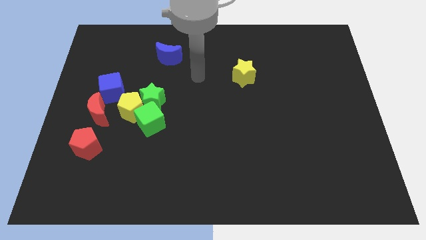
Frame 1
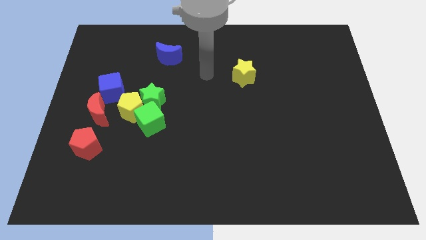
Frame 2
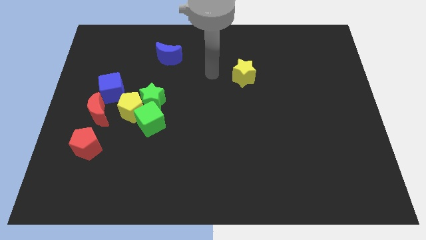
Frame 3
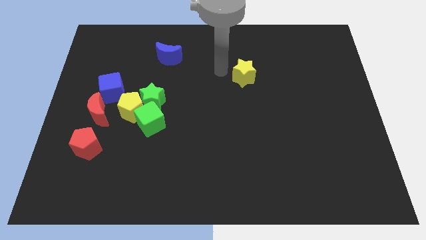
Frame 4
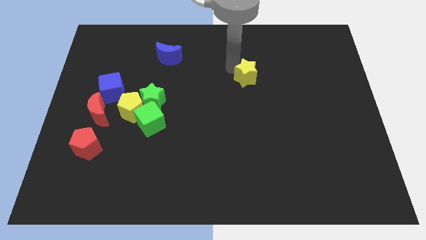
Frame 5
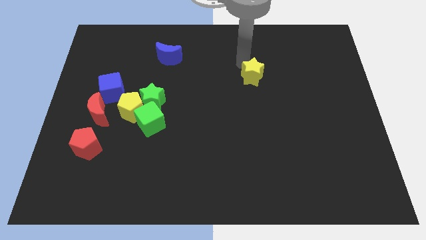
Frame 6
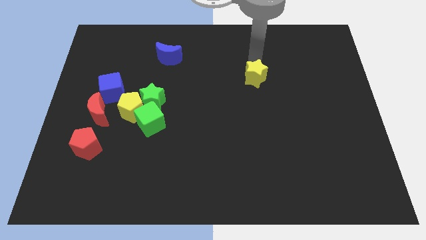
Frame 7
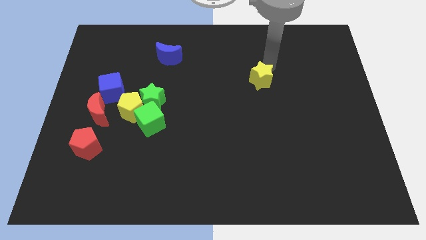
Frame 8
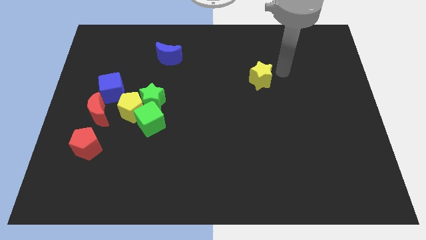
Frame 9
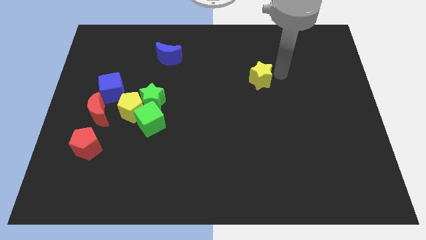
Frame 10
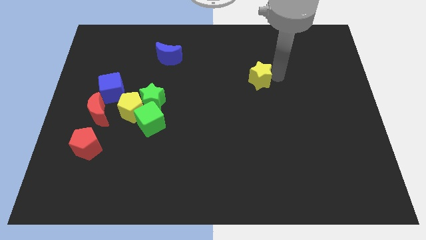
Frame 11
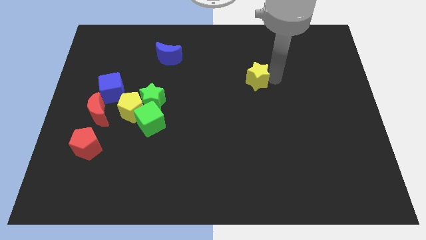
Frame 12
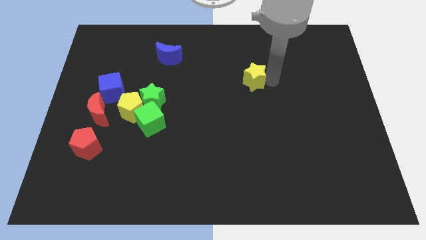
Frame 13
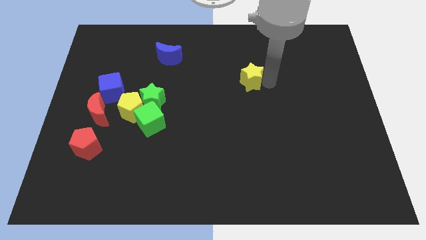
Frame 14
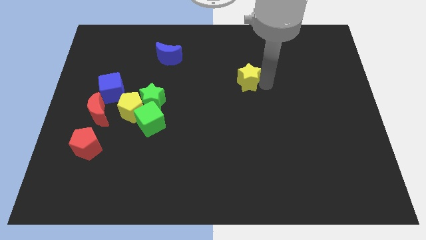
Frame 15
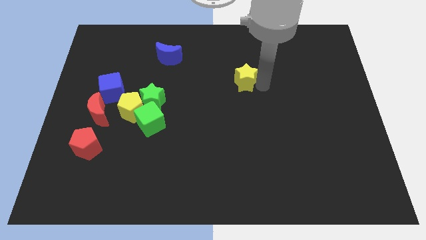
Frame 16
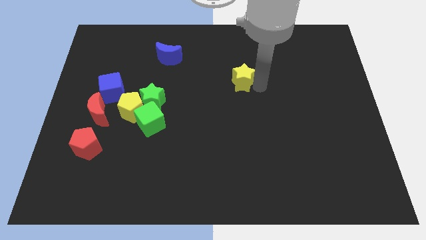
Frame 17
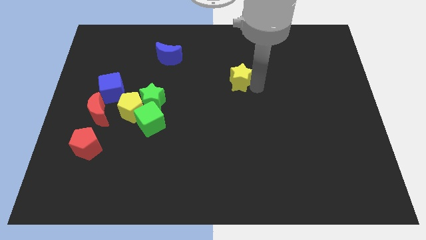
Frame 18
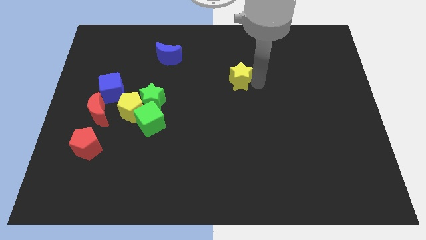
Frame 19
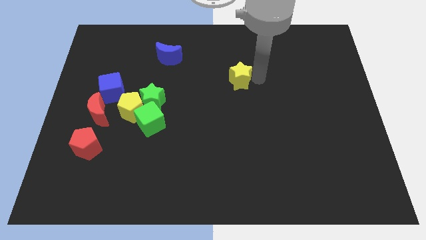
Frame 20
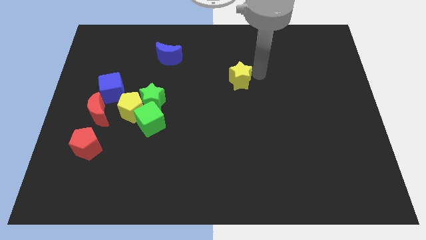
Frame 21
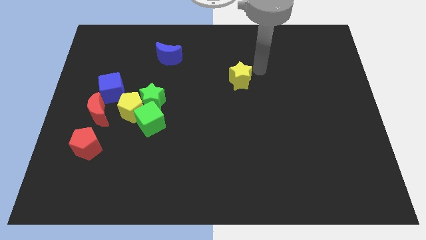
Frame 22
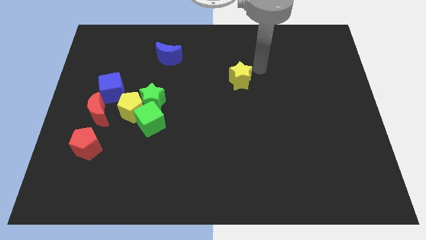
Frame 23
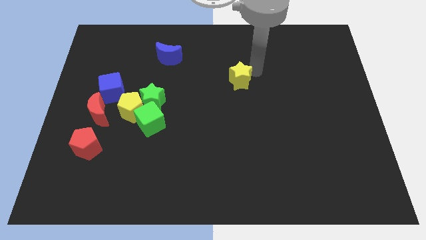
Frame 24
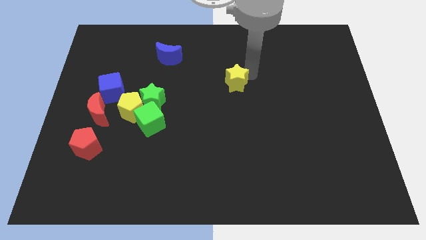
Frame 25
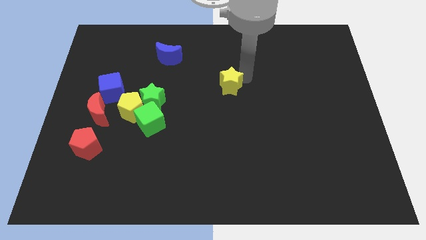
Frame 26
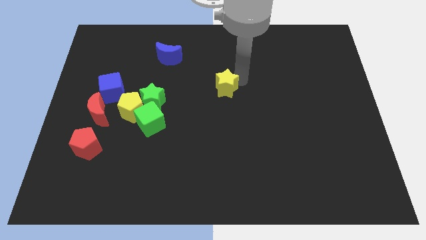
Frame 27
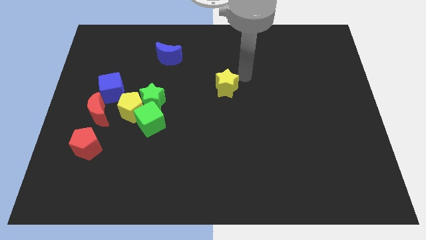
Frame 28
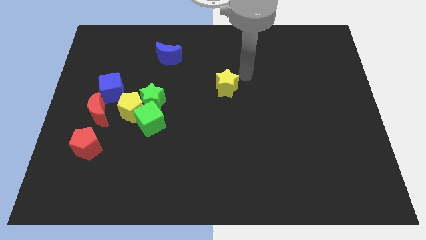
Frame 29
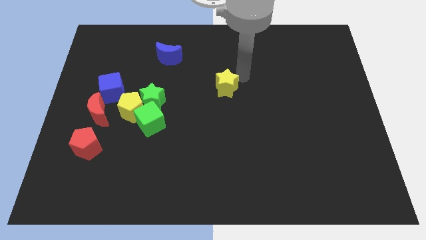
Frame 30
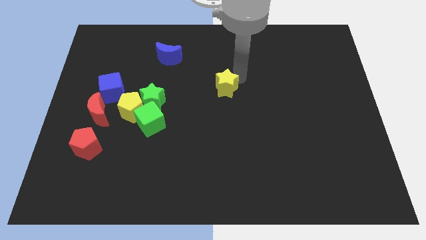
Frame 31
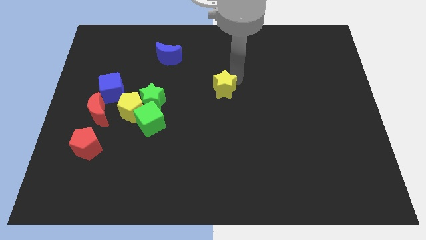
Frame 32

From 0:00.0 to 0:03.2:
slightly slide the yellow star downwards and to the left diagonally

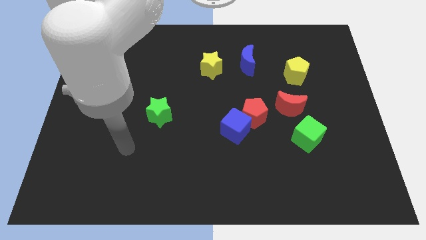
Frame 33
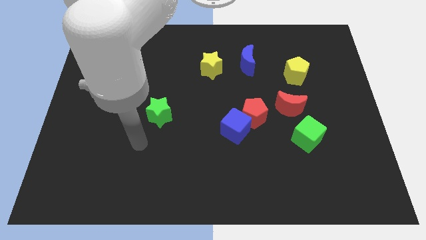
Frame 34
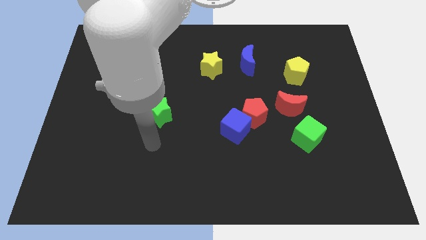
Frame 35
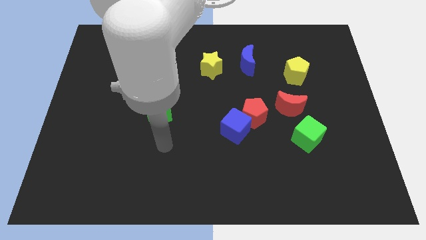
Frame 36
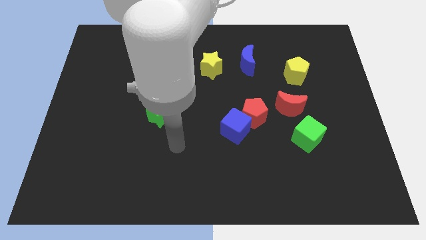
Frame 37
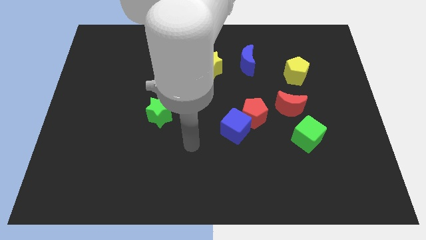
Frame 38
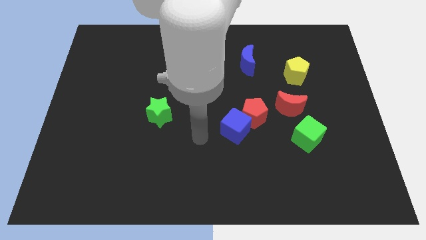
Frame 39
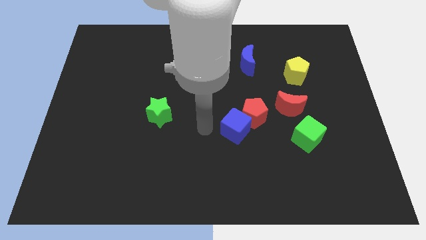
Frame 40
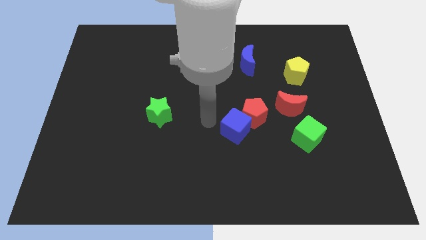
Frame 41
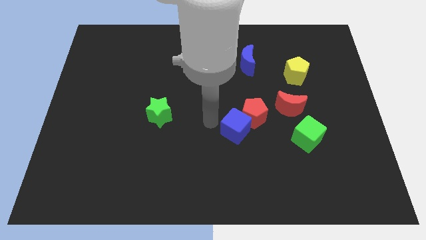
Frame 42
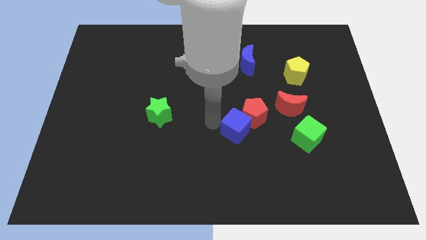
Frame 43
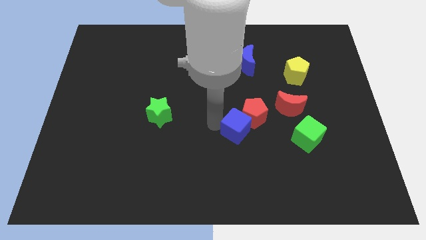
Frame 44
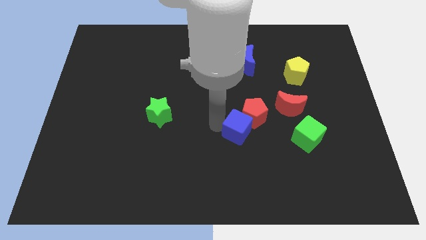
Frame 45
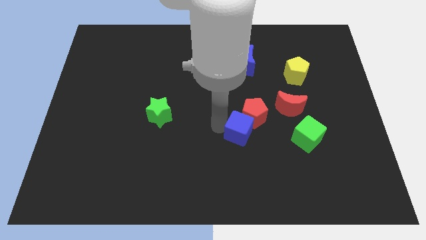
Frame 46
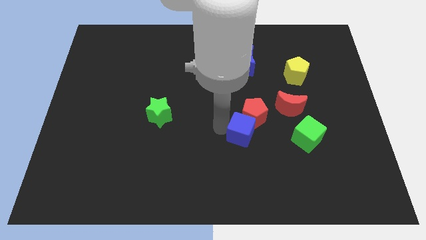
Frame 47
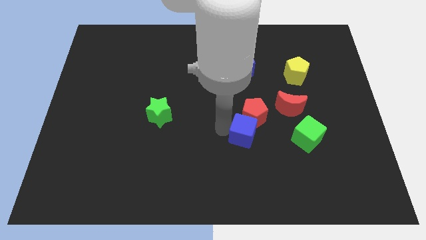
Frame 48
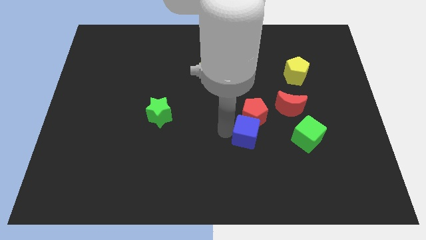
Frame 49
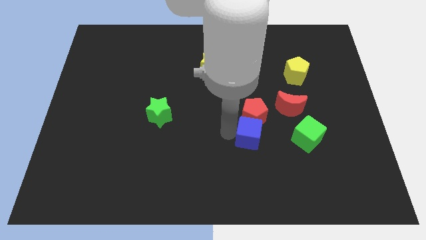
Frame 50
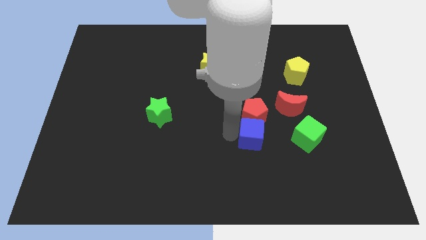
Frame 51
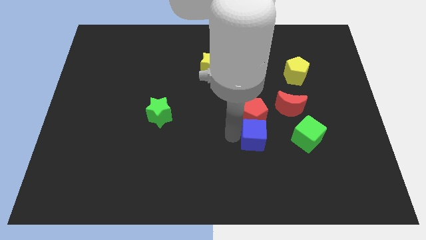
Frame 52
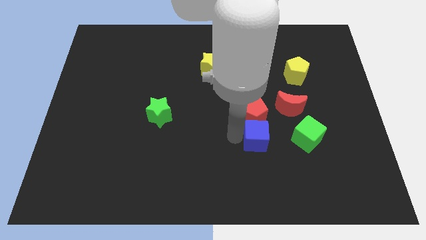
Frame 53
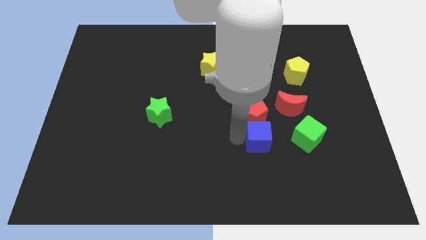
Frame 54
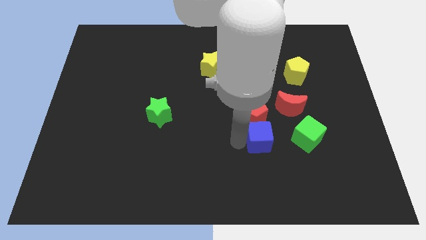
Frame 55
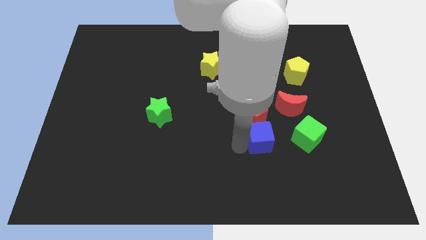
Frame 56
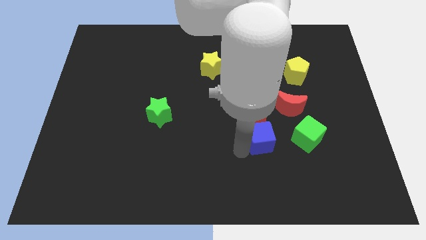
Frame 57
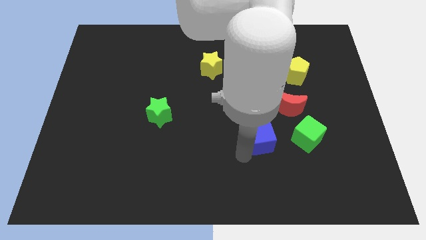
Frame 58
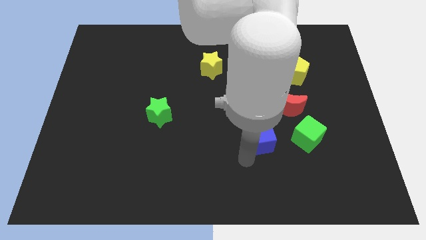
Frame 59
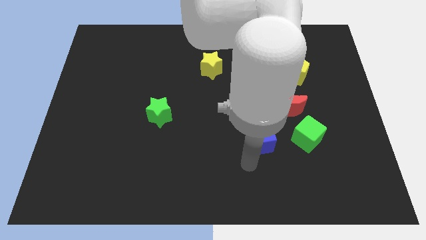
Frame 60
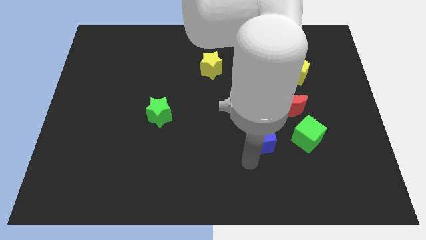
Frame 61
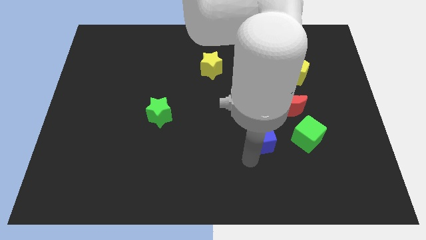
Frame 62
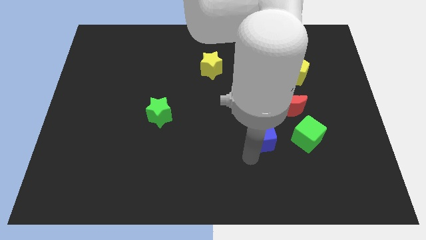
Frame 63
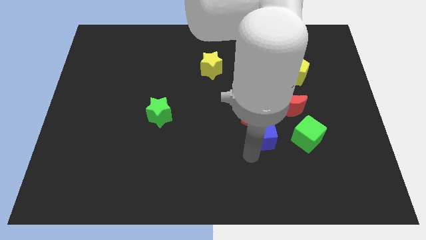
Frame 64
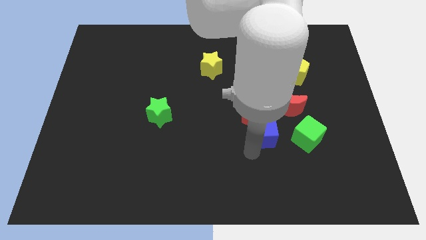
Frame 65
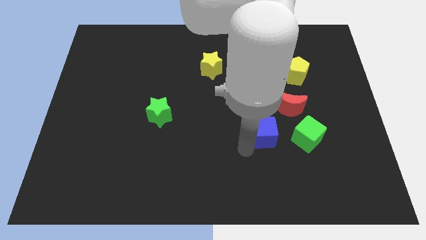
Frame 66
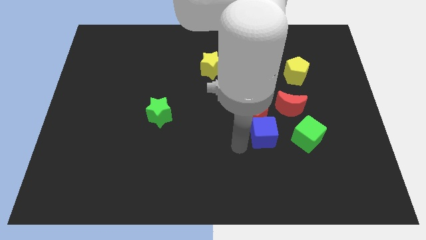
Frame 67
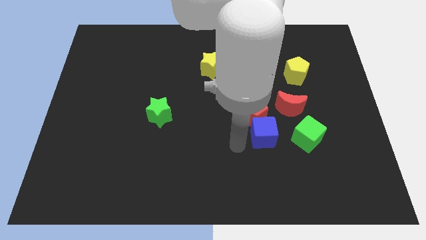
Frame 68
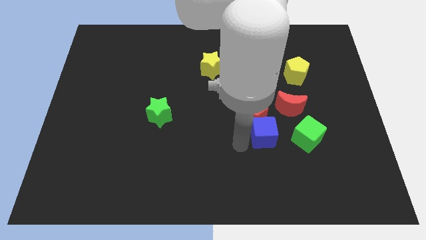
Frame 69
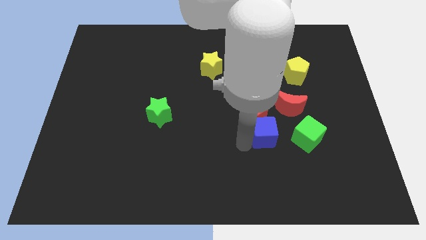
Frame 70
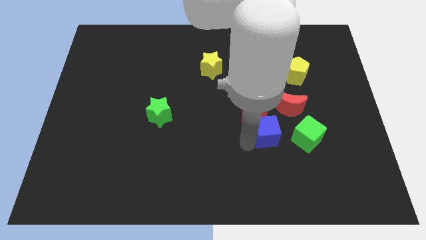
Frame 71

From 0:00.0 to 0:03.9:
push the blue cube a little to the right

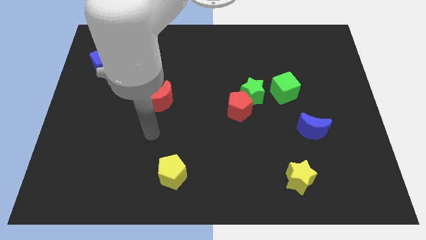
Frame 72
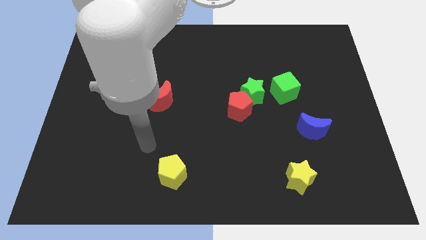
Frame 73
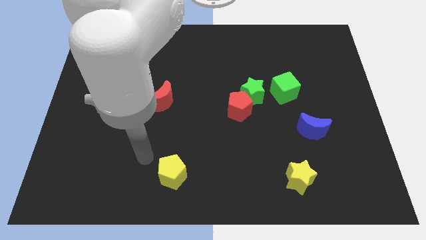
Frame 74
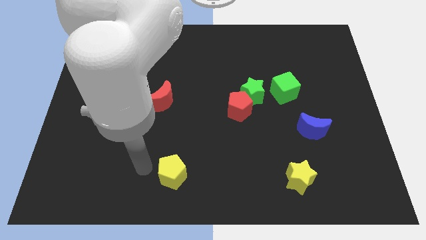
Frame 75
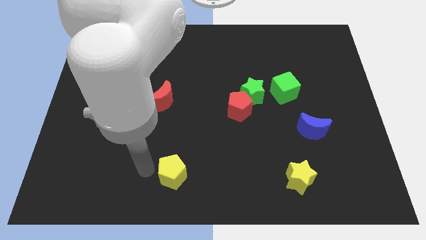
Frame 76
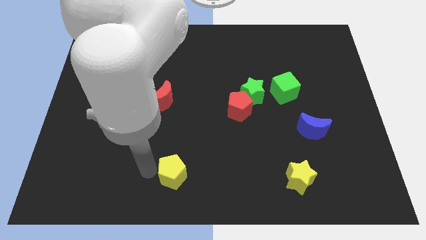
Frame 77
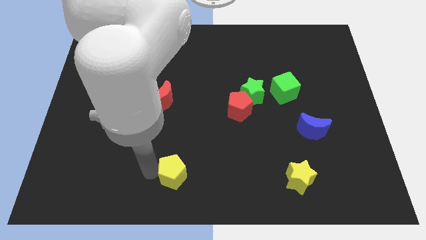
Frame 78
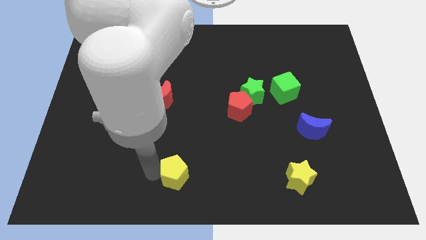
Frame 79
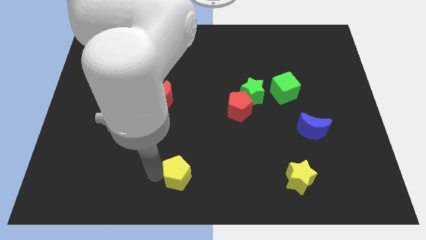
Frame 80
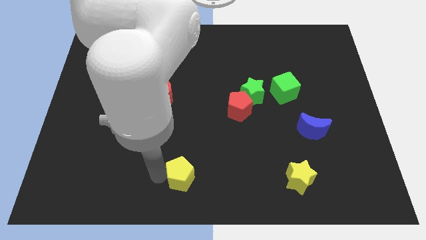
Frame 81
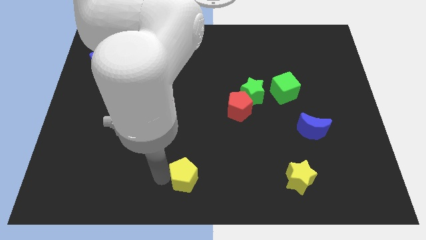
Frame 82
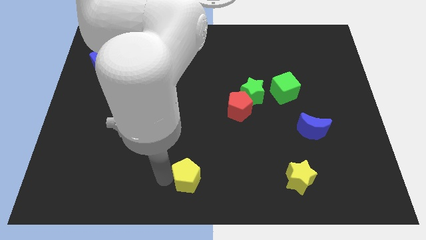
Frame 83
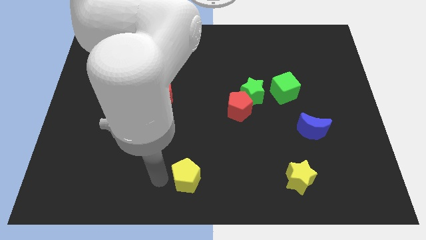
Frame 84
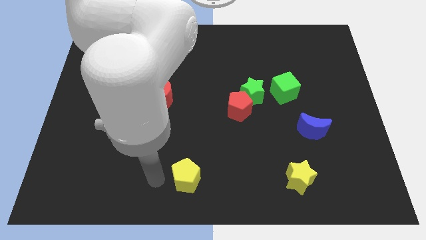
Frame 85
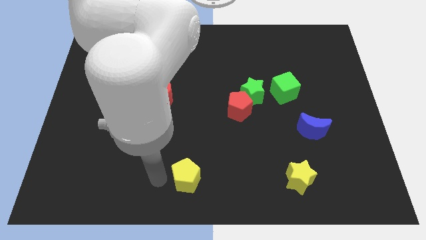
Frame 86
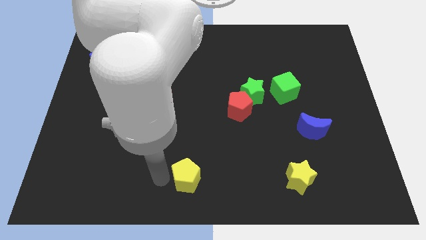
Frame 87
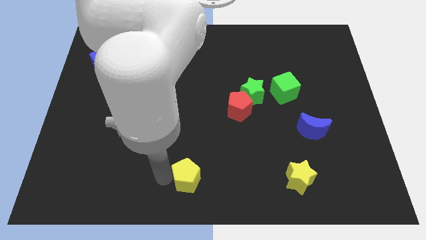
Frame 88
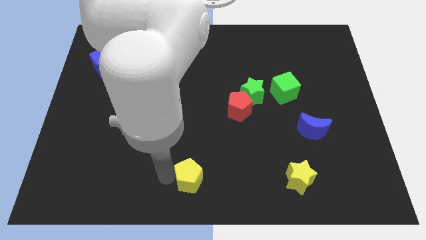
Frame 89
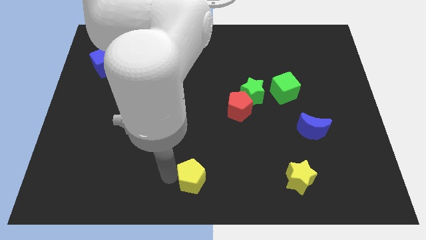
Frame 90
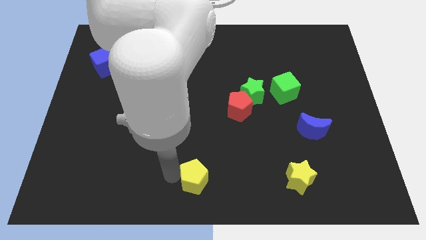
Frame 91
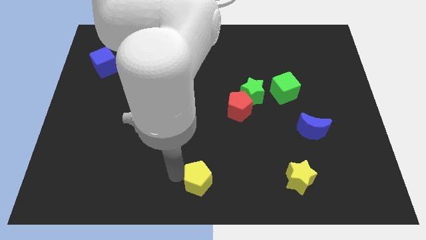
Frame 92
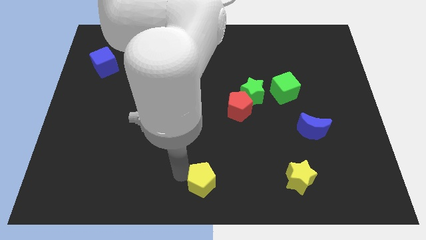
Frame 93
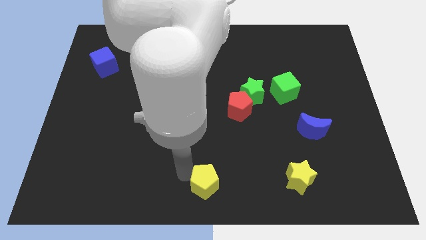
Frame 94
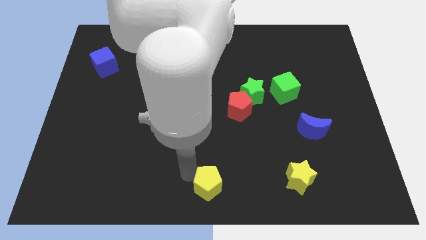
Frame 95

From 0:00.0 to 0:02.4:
move the yellow pentagon somewhat right
